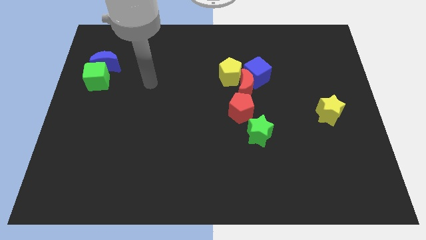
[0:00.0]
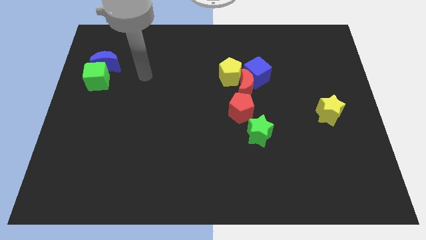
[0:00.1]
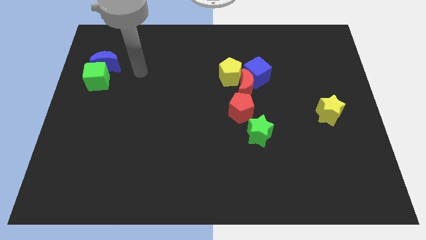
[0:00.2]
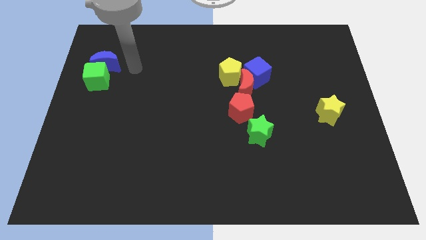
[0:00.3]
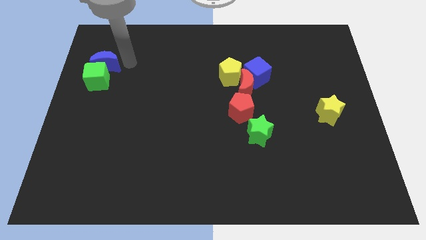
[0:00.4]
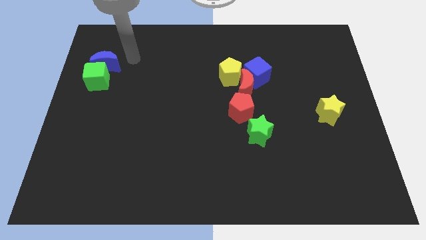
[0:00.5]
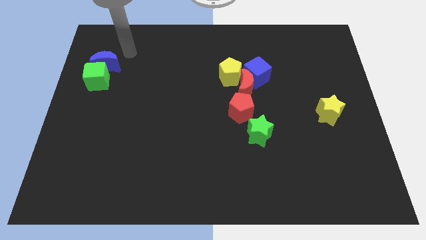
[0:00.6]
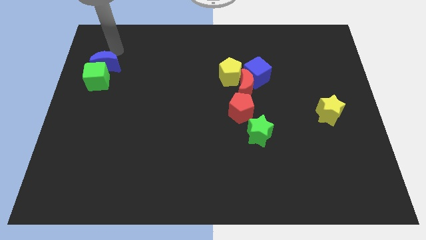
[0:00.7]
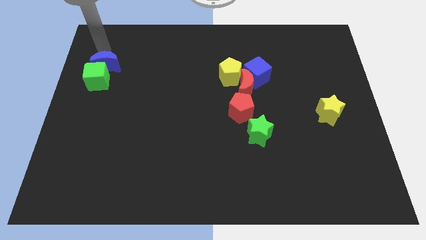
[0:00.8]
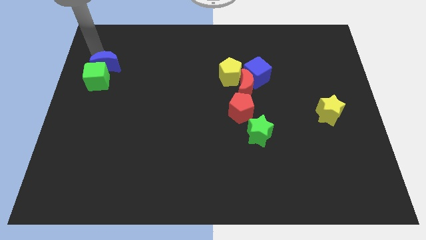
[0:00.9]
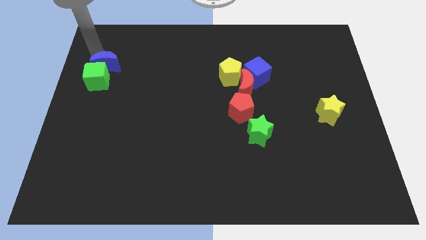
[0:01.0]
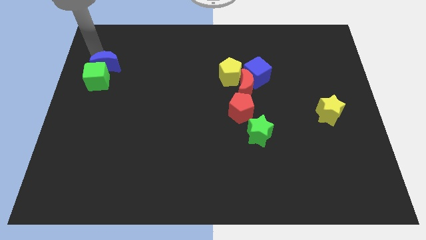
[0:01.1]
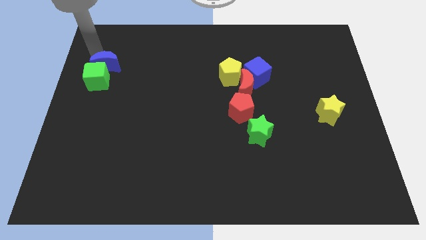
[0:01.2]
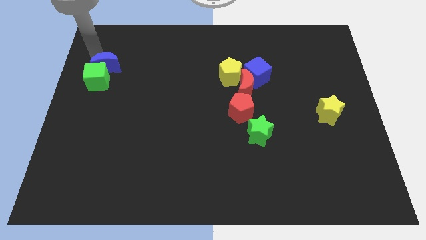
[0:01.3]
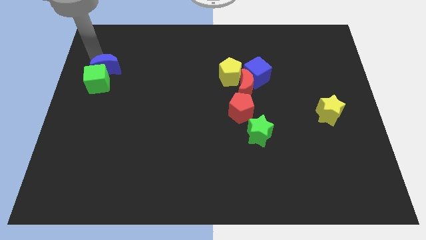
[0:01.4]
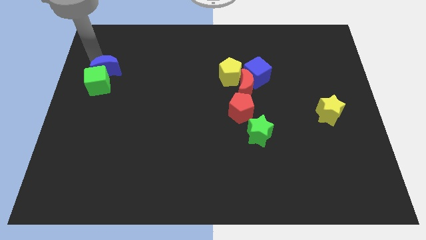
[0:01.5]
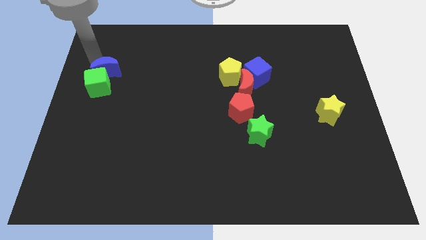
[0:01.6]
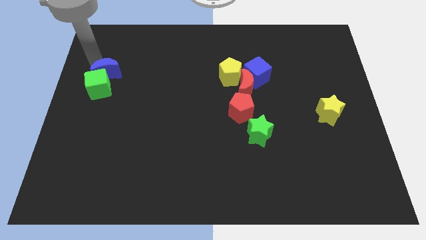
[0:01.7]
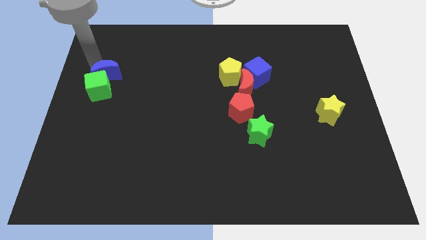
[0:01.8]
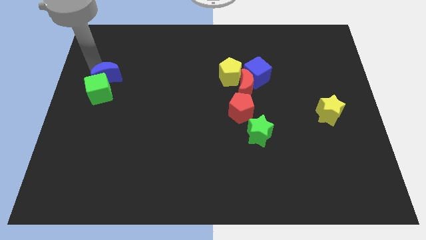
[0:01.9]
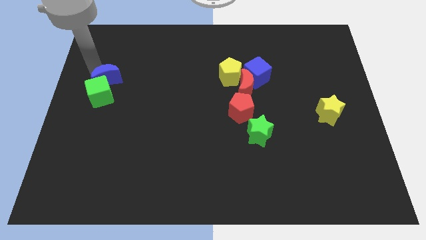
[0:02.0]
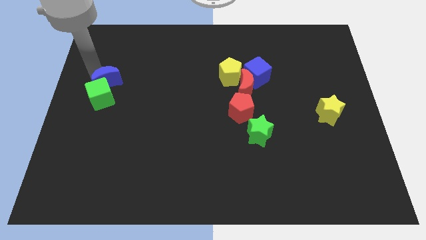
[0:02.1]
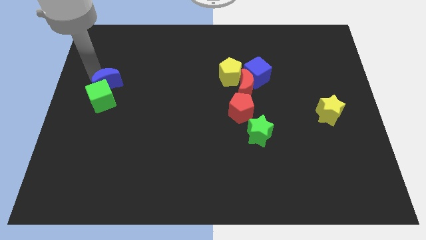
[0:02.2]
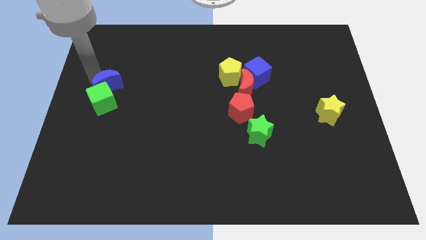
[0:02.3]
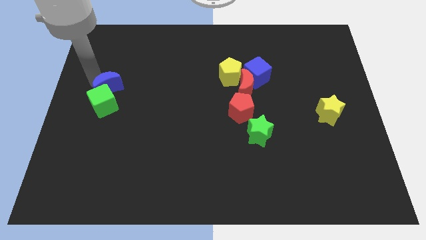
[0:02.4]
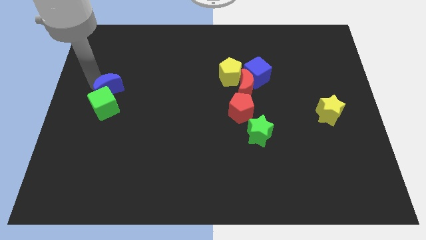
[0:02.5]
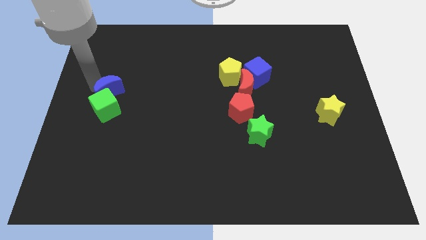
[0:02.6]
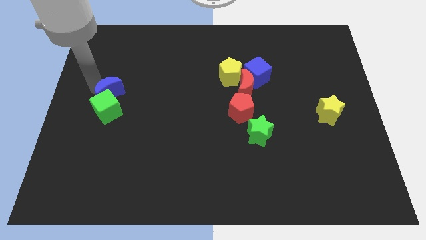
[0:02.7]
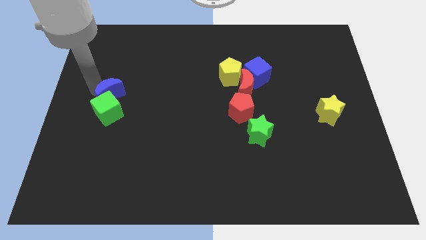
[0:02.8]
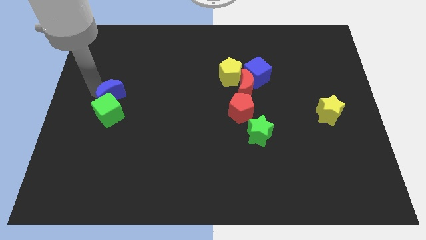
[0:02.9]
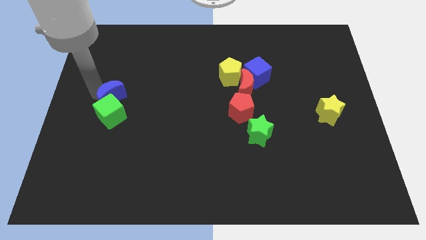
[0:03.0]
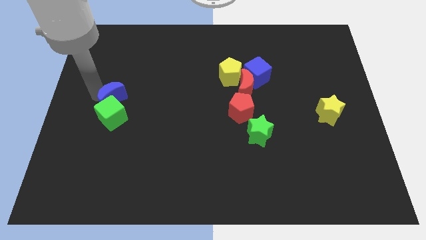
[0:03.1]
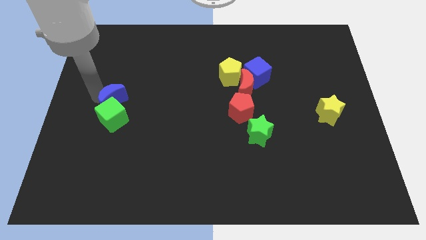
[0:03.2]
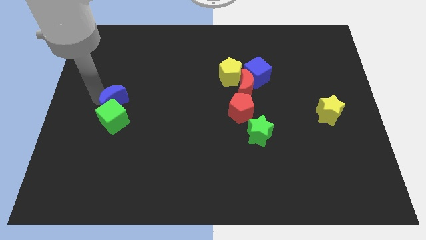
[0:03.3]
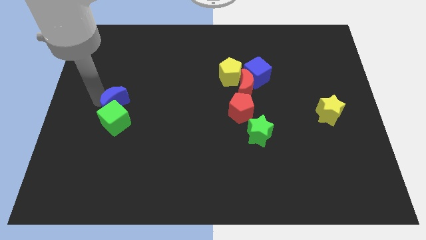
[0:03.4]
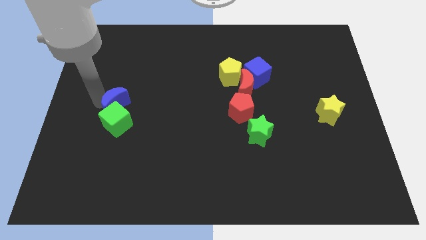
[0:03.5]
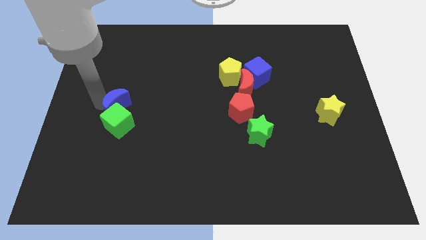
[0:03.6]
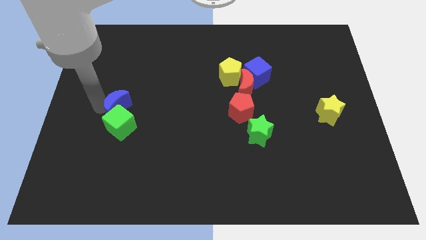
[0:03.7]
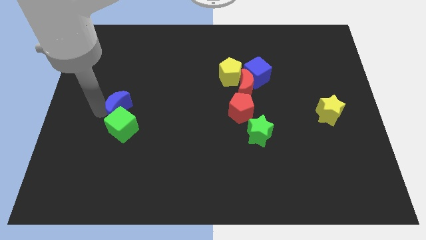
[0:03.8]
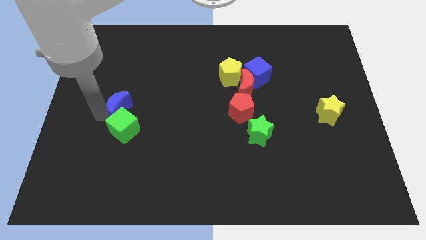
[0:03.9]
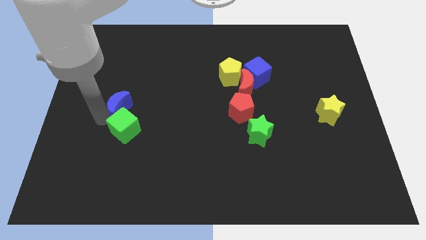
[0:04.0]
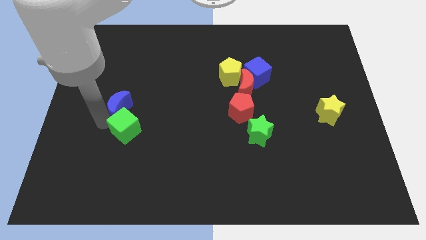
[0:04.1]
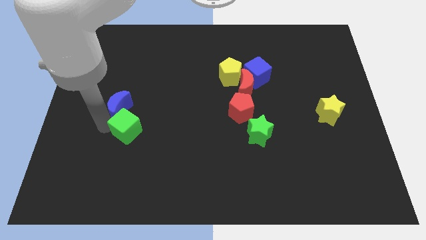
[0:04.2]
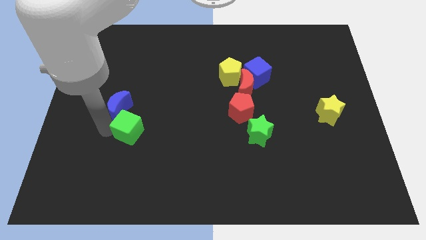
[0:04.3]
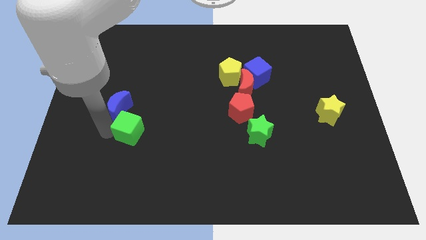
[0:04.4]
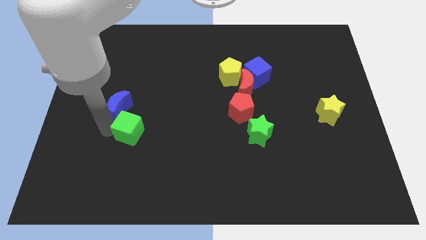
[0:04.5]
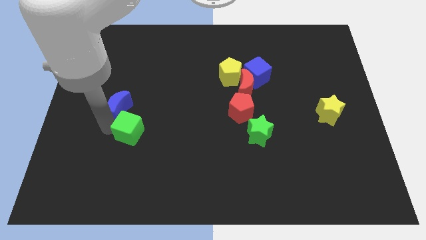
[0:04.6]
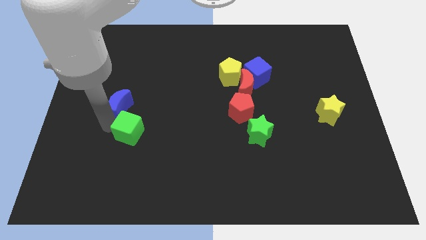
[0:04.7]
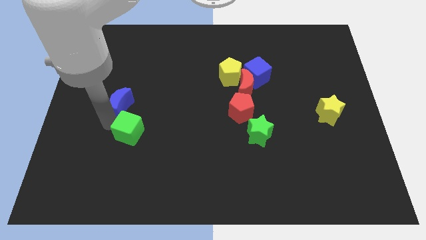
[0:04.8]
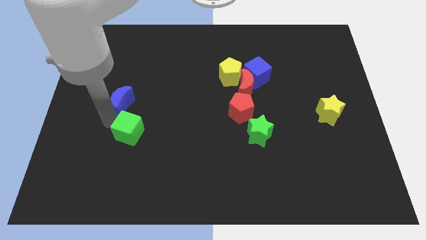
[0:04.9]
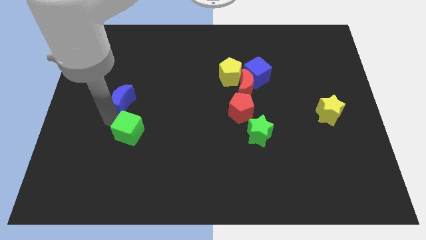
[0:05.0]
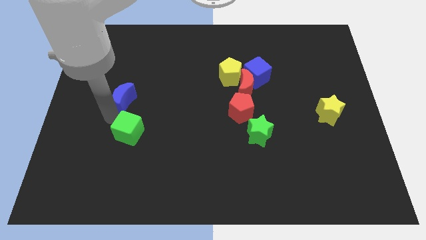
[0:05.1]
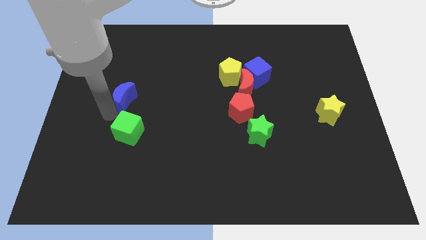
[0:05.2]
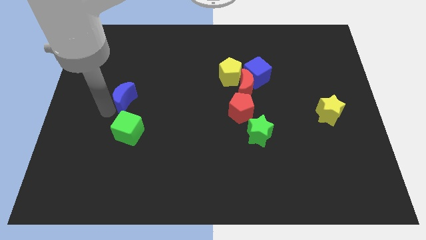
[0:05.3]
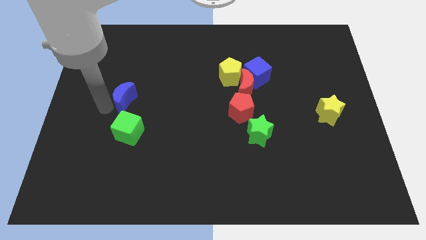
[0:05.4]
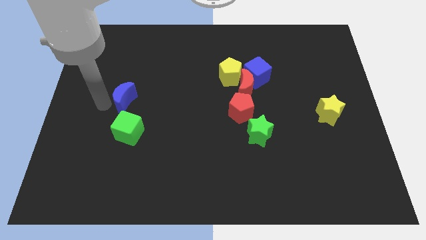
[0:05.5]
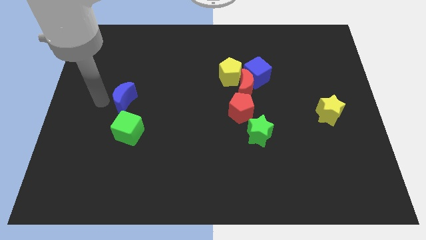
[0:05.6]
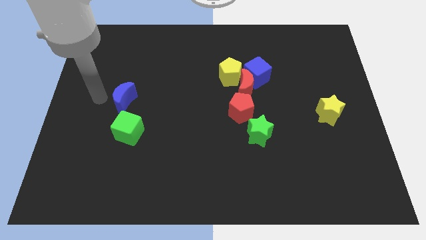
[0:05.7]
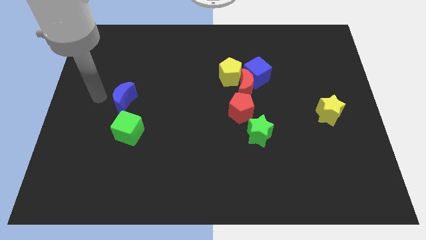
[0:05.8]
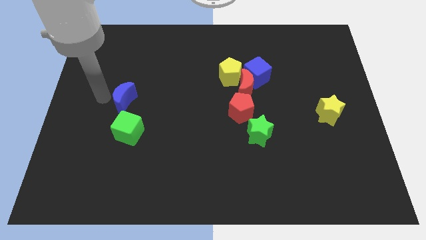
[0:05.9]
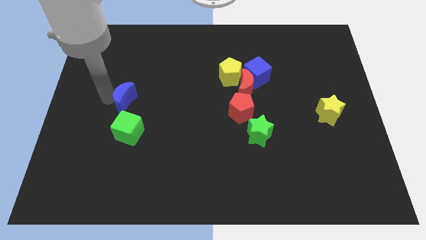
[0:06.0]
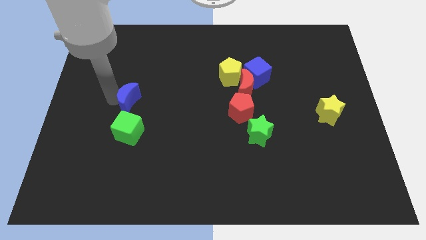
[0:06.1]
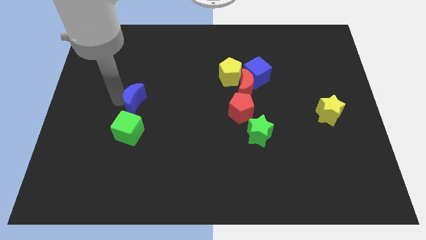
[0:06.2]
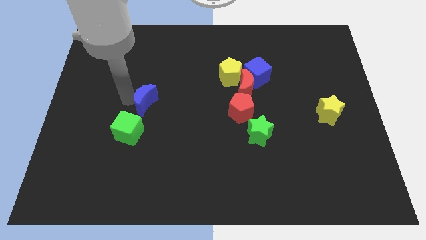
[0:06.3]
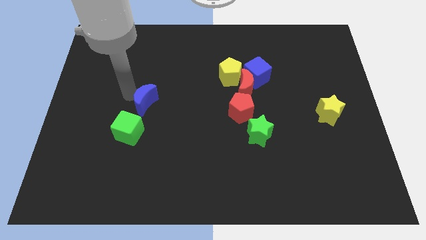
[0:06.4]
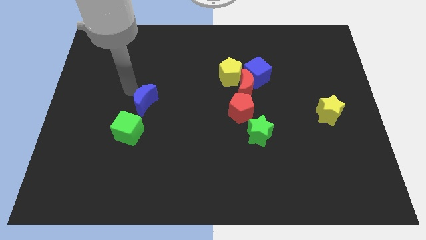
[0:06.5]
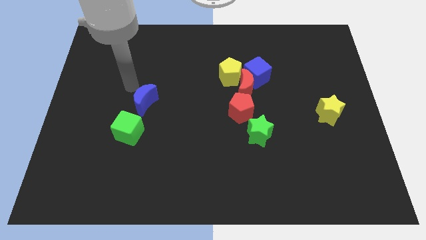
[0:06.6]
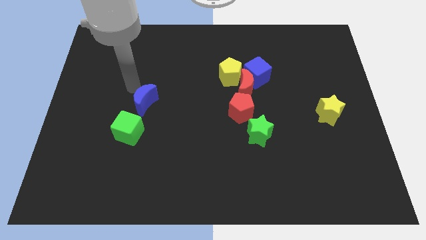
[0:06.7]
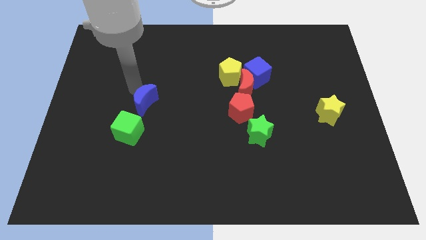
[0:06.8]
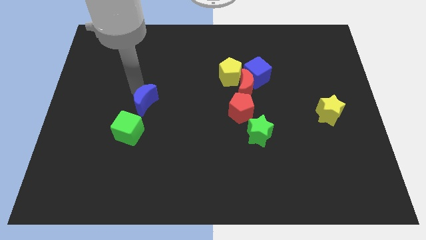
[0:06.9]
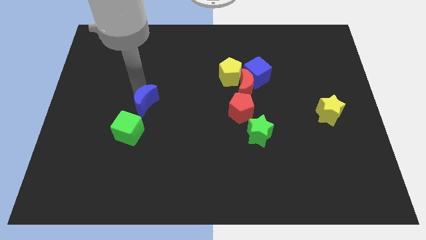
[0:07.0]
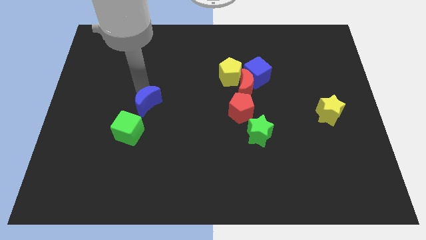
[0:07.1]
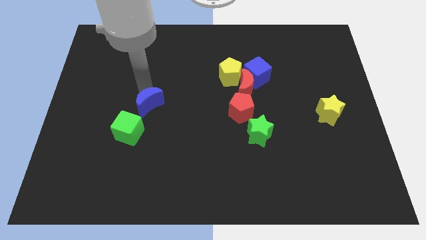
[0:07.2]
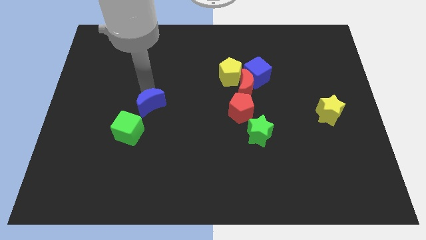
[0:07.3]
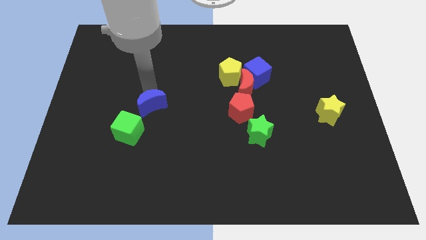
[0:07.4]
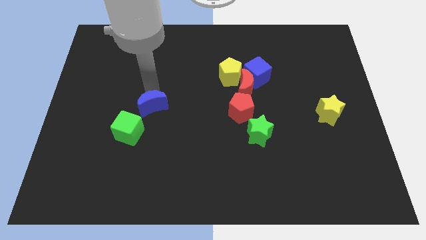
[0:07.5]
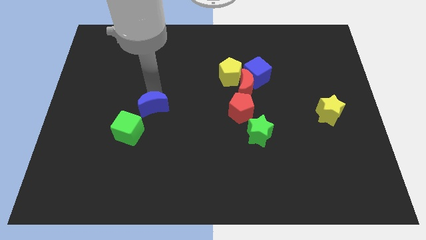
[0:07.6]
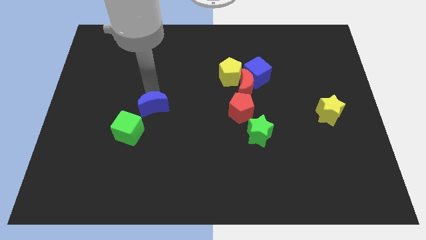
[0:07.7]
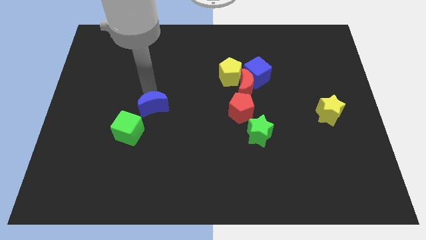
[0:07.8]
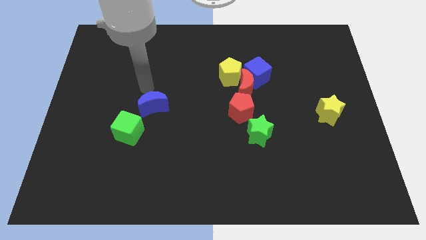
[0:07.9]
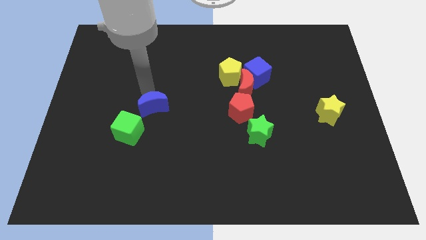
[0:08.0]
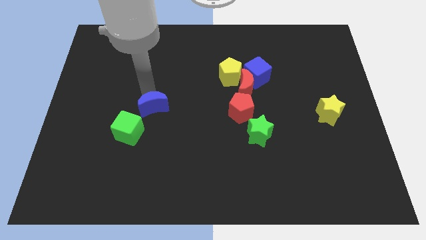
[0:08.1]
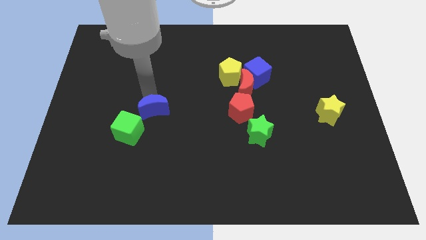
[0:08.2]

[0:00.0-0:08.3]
move the blue moon down and to the right
